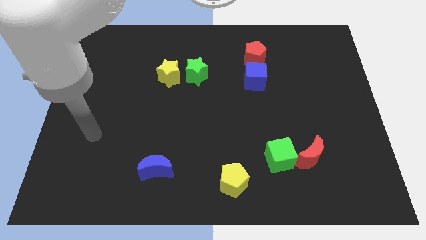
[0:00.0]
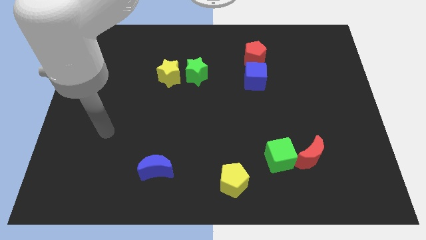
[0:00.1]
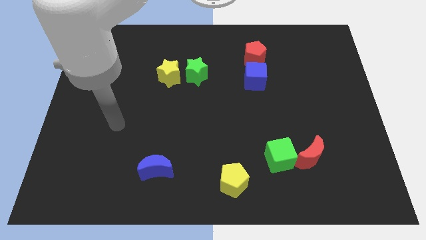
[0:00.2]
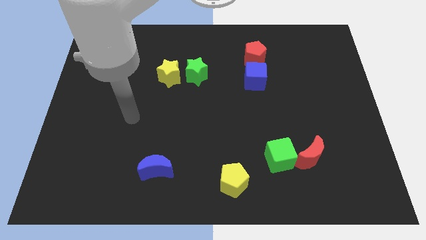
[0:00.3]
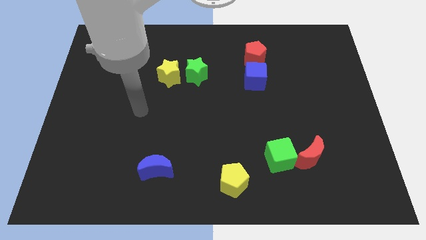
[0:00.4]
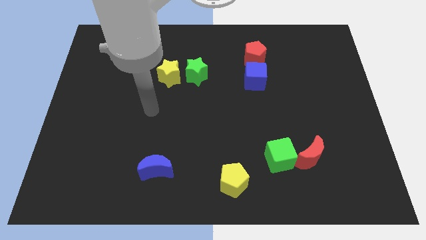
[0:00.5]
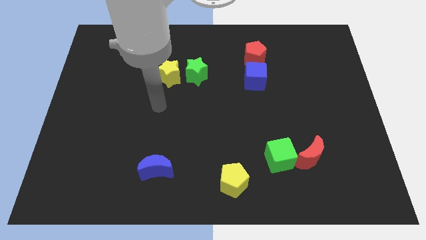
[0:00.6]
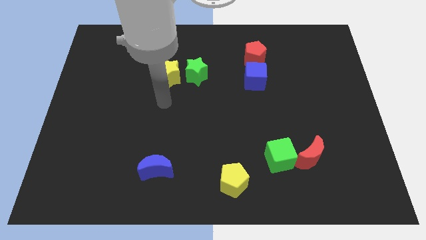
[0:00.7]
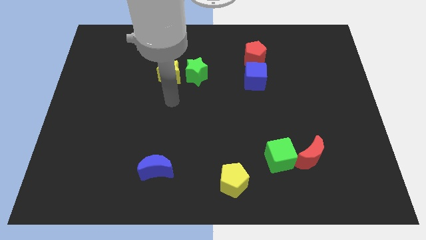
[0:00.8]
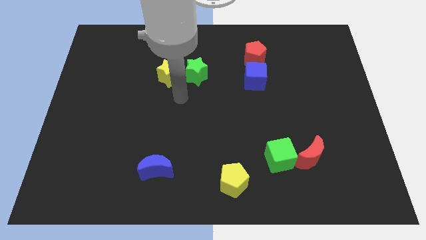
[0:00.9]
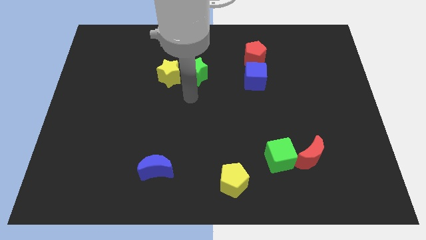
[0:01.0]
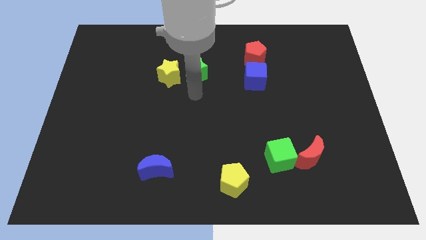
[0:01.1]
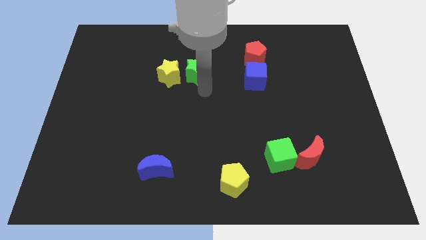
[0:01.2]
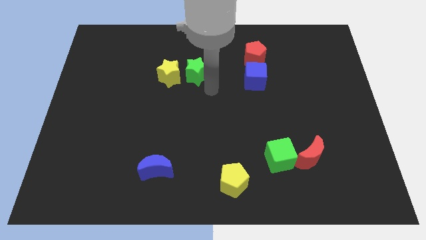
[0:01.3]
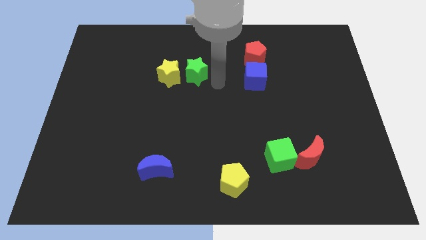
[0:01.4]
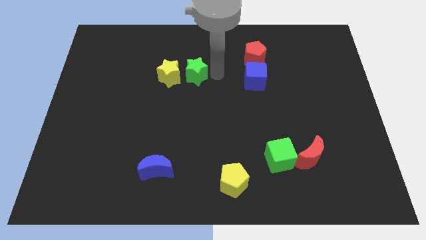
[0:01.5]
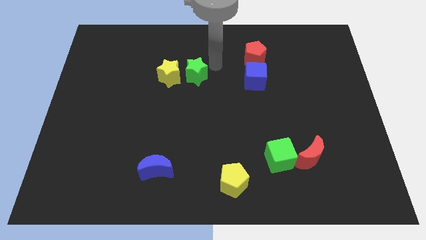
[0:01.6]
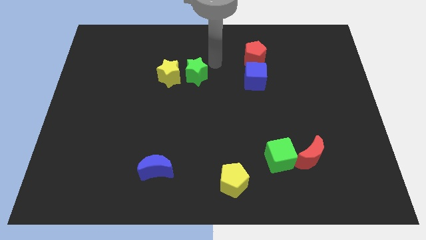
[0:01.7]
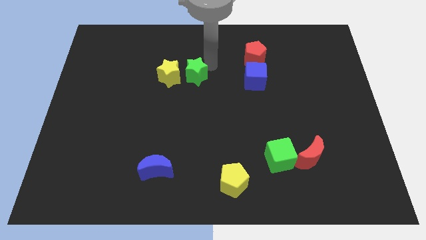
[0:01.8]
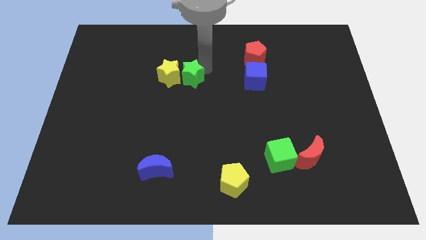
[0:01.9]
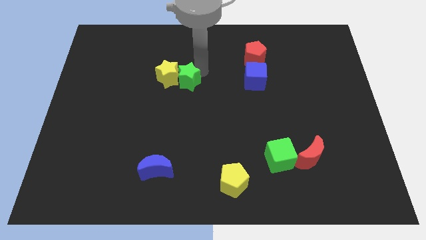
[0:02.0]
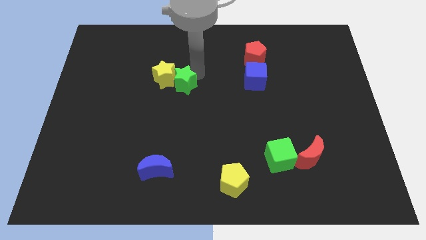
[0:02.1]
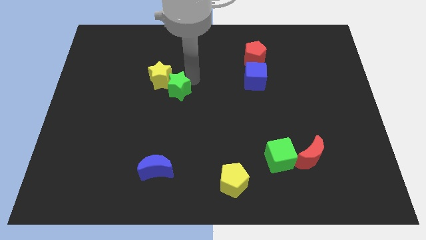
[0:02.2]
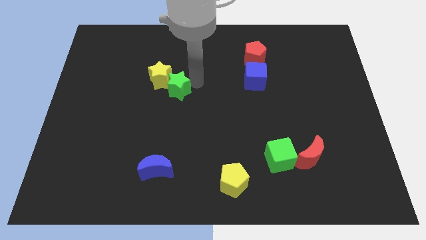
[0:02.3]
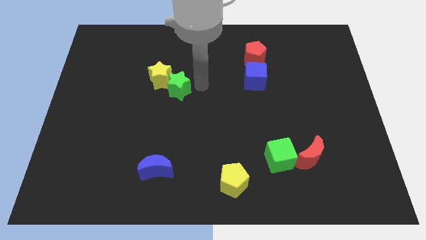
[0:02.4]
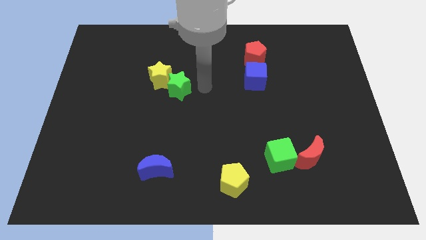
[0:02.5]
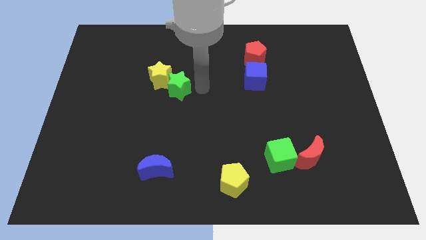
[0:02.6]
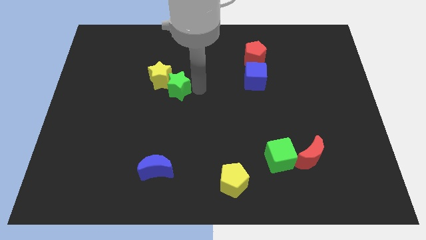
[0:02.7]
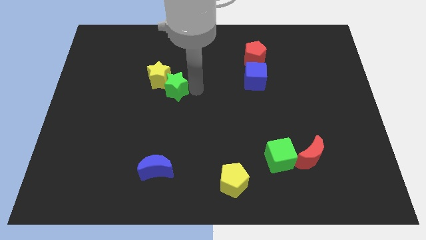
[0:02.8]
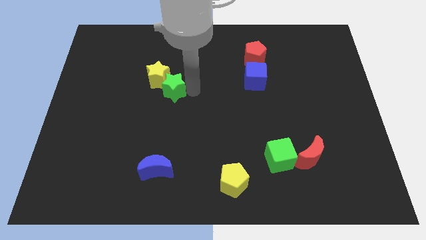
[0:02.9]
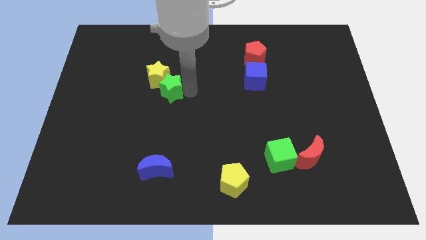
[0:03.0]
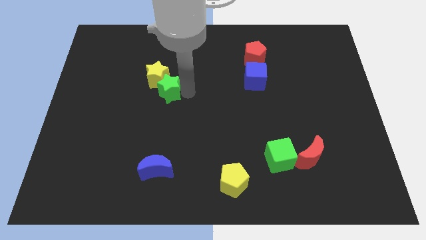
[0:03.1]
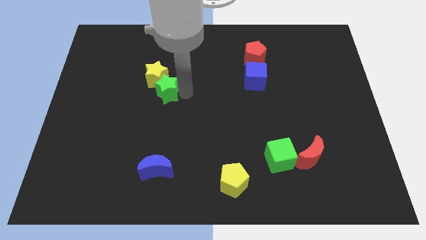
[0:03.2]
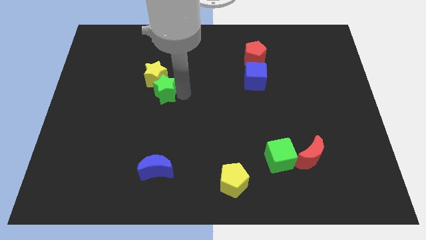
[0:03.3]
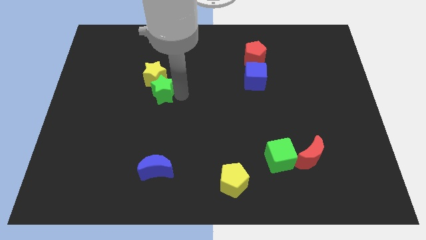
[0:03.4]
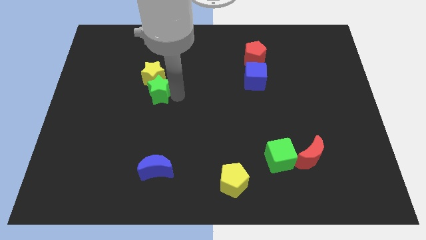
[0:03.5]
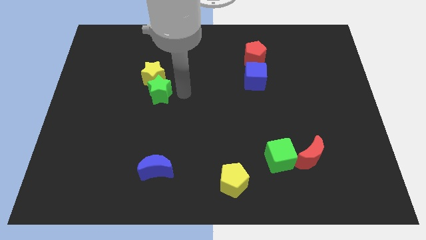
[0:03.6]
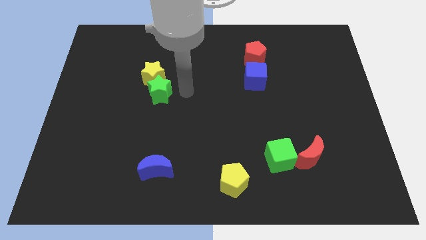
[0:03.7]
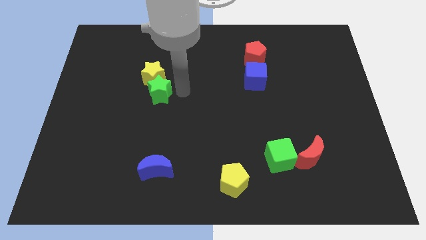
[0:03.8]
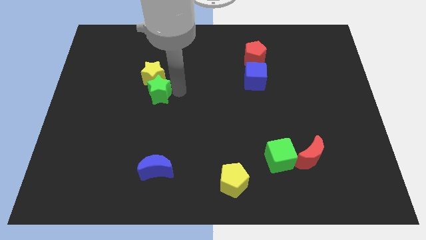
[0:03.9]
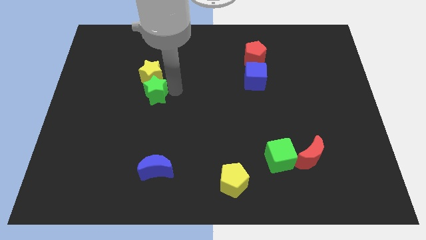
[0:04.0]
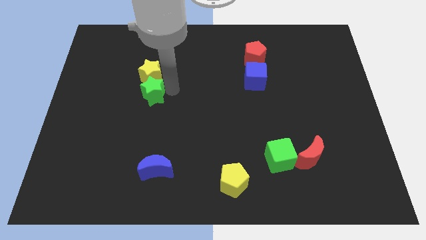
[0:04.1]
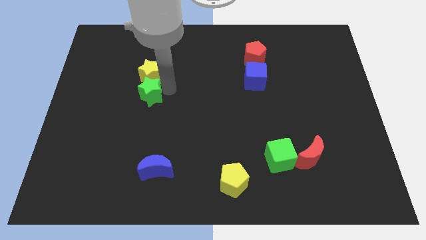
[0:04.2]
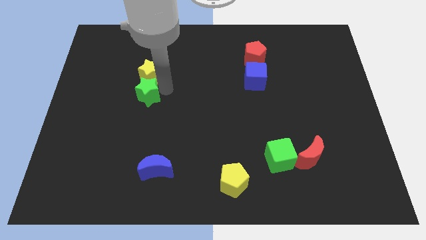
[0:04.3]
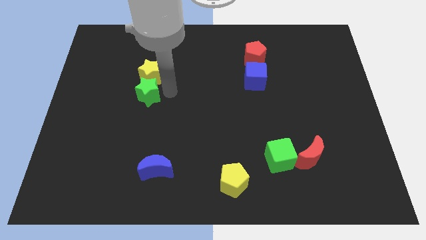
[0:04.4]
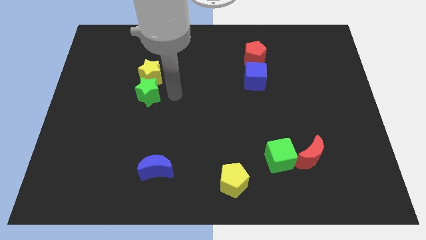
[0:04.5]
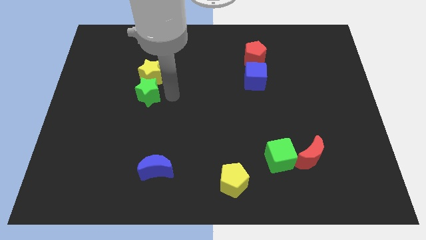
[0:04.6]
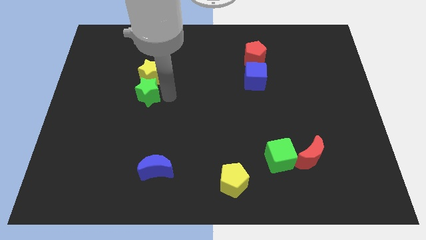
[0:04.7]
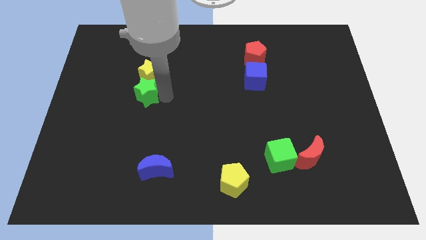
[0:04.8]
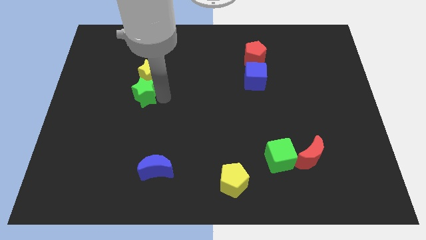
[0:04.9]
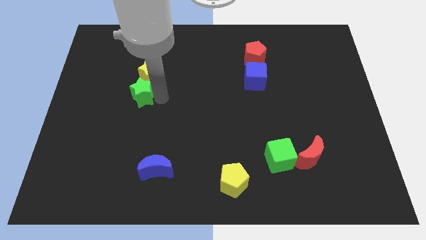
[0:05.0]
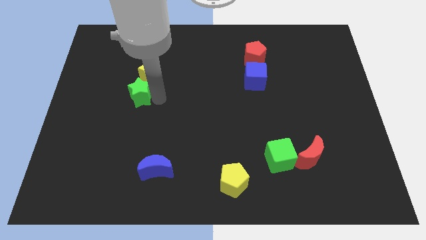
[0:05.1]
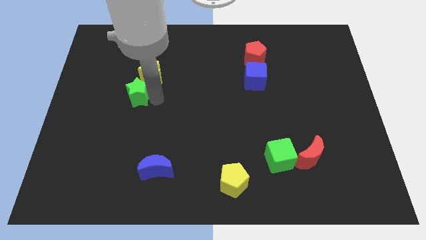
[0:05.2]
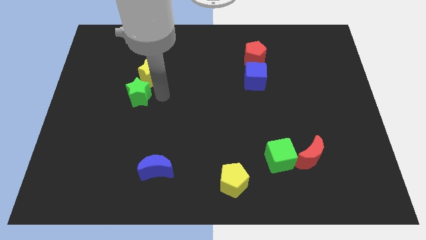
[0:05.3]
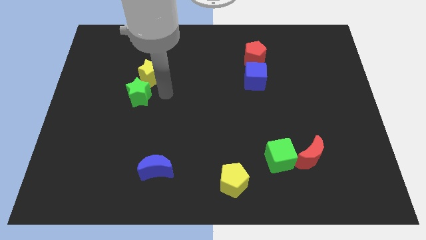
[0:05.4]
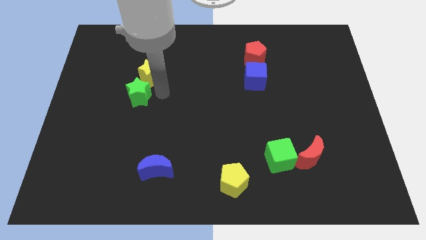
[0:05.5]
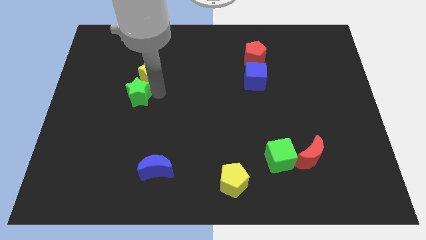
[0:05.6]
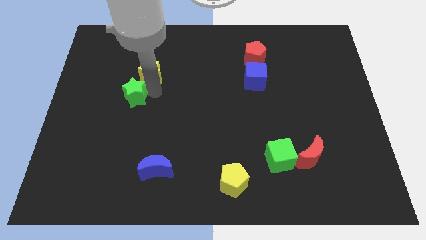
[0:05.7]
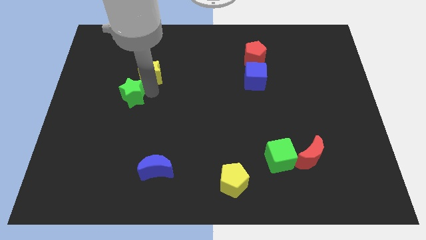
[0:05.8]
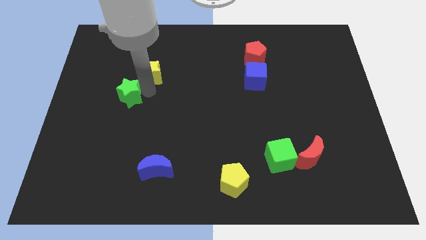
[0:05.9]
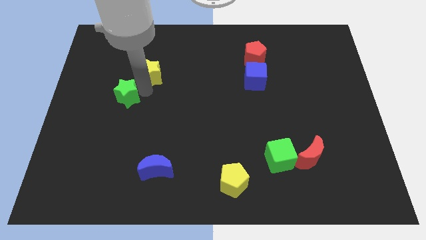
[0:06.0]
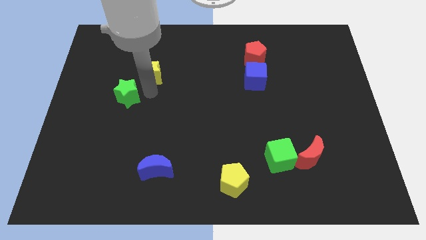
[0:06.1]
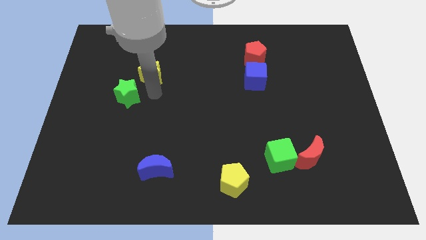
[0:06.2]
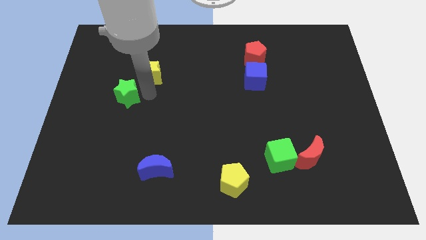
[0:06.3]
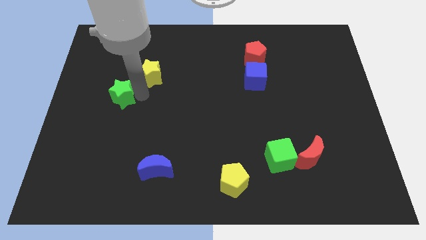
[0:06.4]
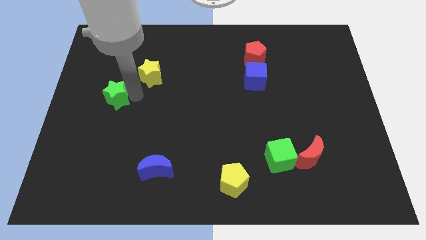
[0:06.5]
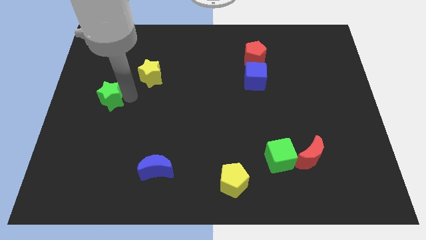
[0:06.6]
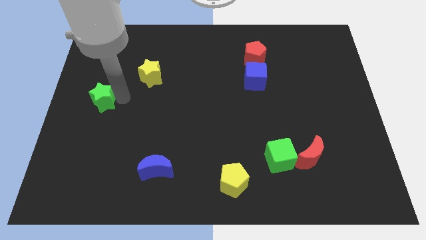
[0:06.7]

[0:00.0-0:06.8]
move the green star to the left side

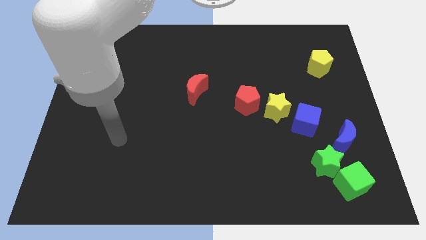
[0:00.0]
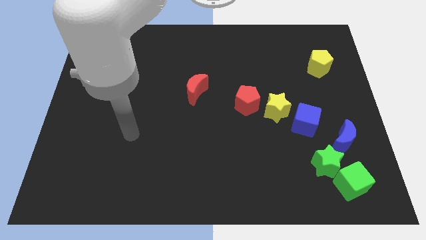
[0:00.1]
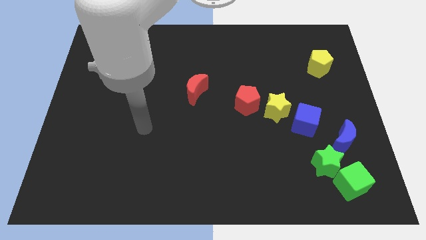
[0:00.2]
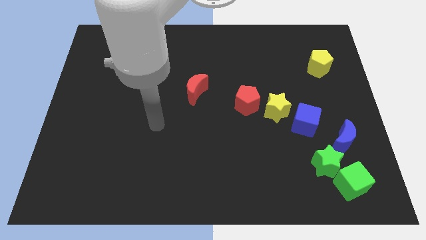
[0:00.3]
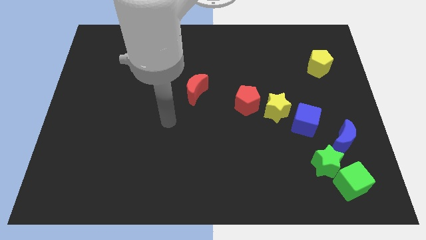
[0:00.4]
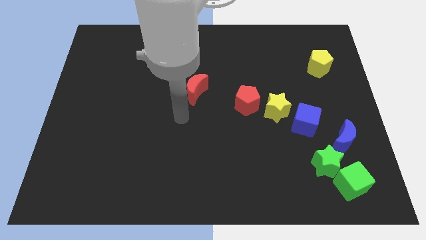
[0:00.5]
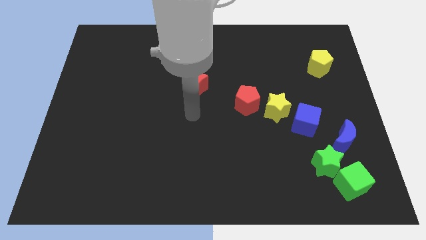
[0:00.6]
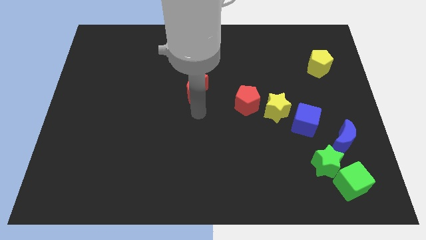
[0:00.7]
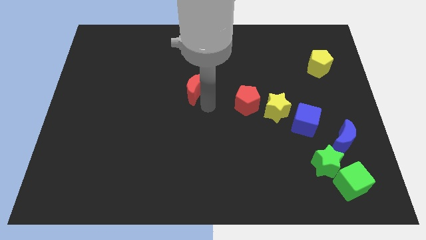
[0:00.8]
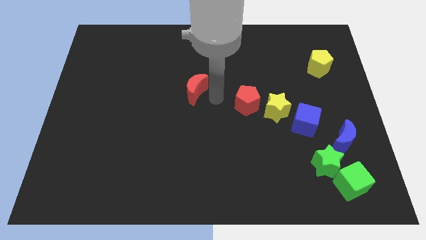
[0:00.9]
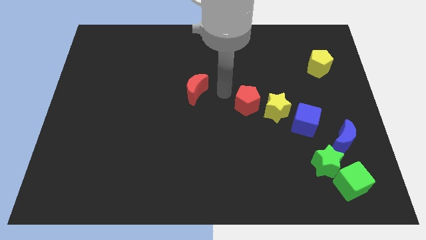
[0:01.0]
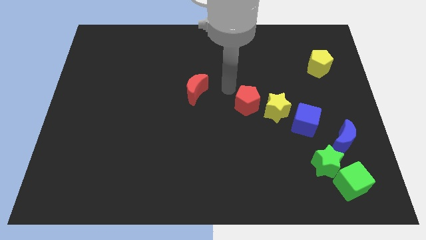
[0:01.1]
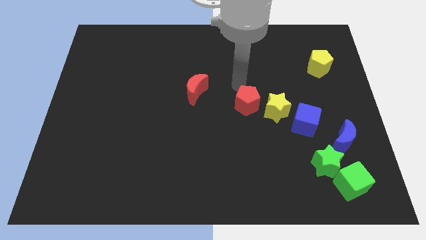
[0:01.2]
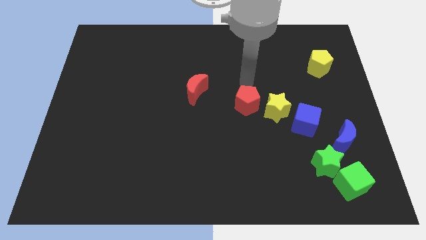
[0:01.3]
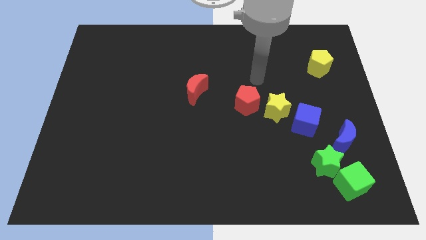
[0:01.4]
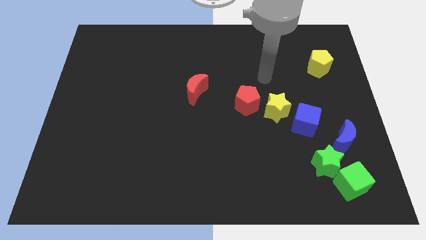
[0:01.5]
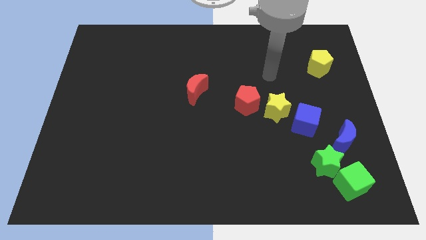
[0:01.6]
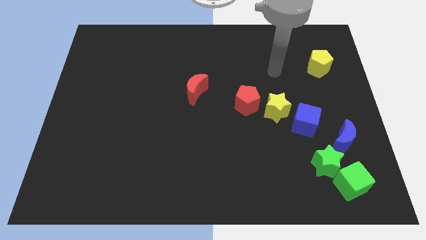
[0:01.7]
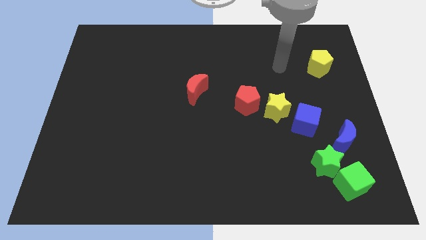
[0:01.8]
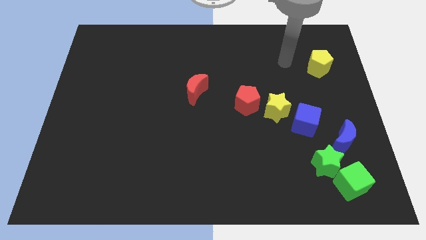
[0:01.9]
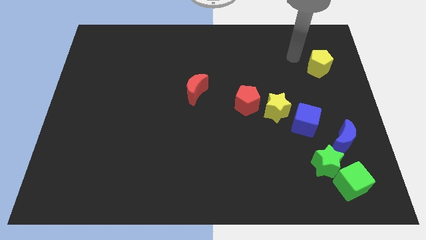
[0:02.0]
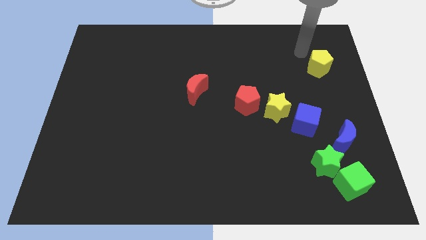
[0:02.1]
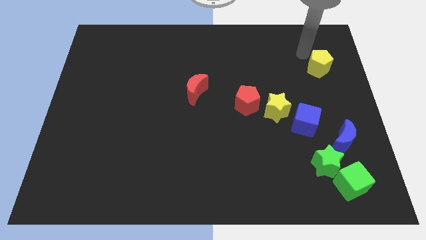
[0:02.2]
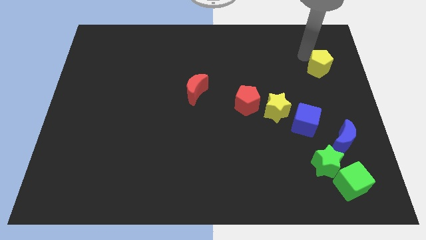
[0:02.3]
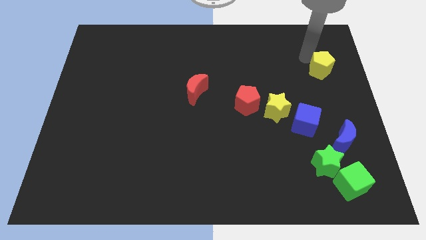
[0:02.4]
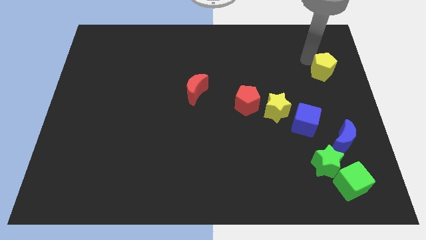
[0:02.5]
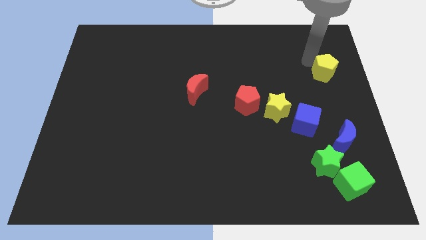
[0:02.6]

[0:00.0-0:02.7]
put the yellow pentagon to the center right
